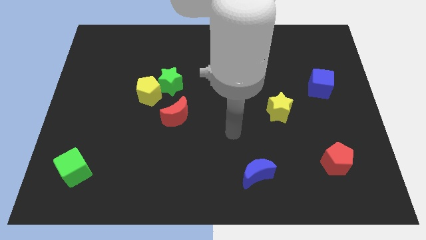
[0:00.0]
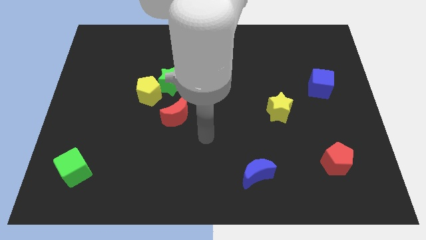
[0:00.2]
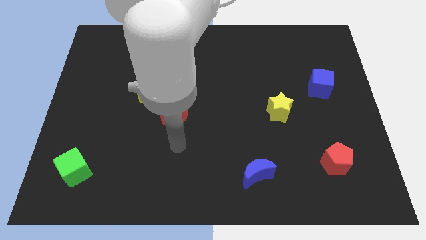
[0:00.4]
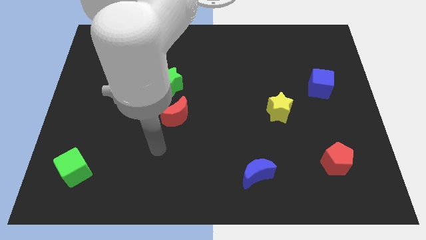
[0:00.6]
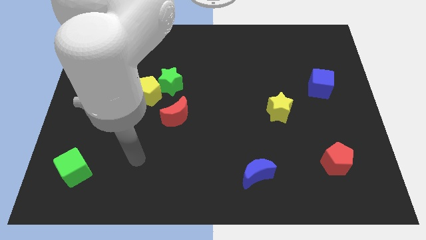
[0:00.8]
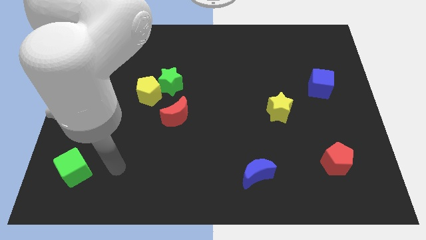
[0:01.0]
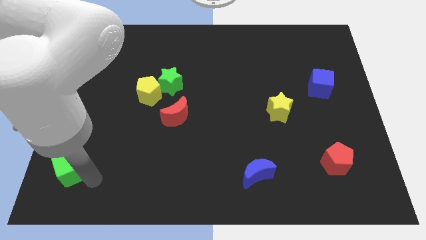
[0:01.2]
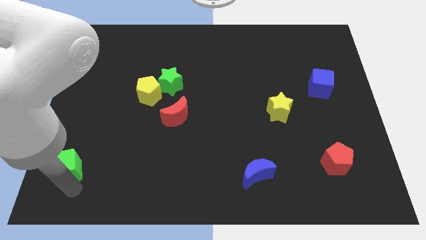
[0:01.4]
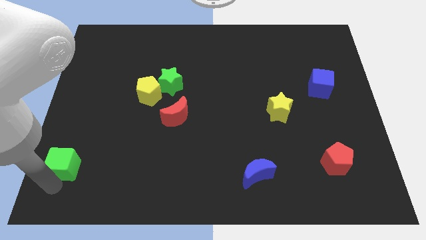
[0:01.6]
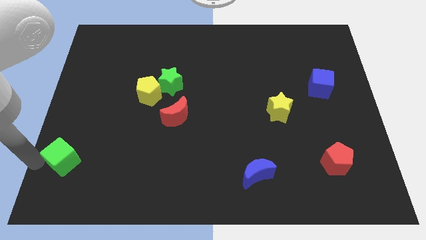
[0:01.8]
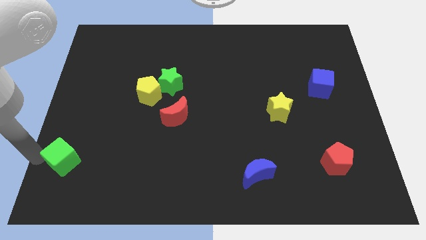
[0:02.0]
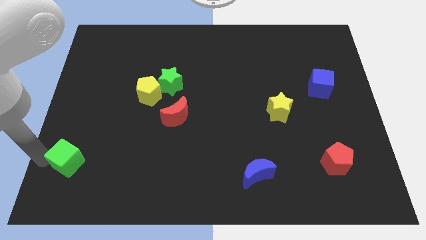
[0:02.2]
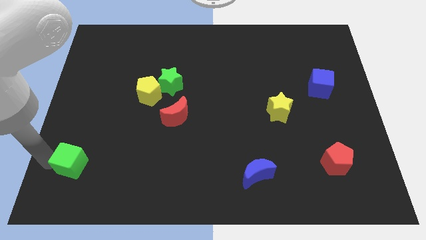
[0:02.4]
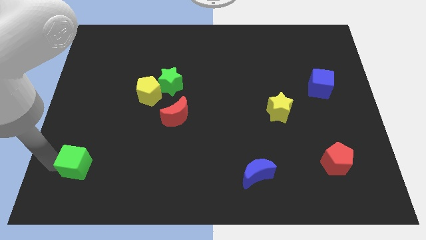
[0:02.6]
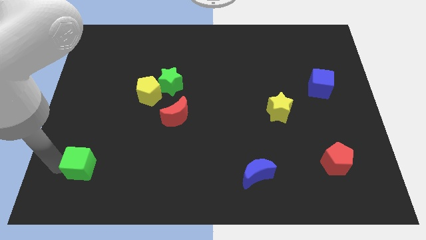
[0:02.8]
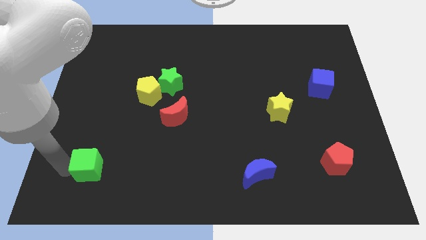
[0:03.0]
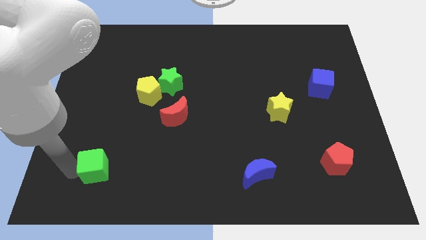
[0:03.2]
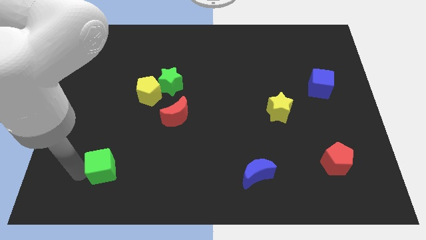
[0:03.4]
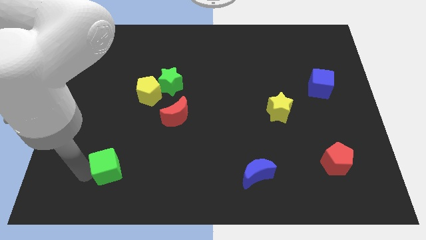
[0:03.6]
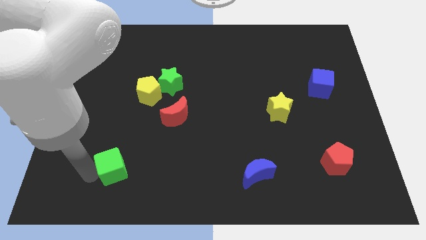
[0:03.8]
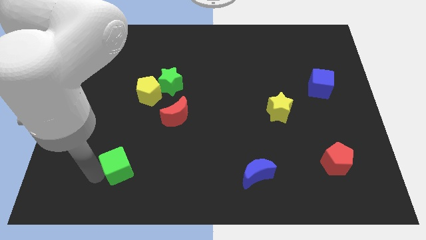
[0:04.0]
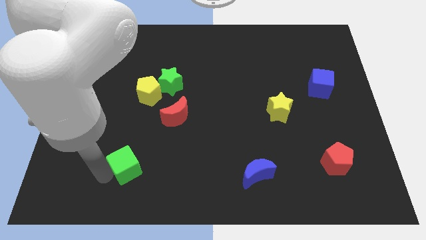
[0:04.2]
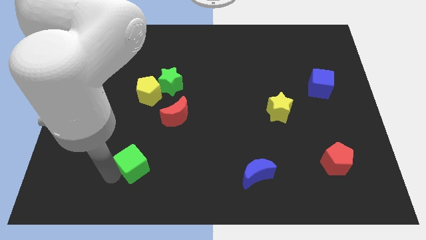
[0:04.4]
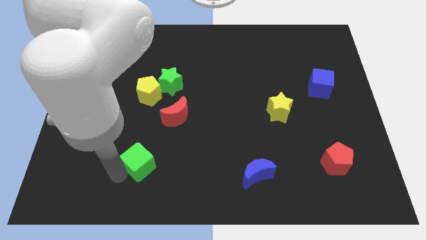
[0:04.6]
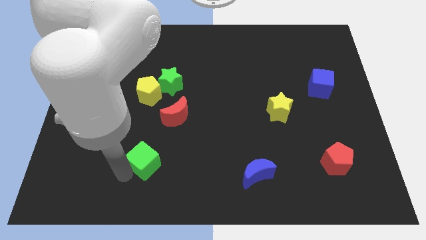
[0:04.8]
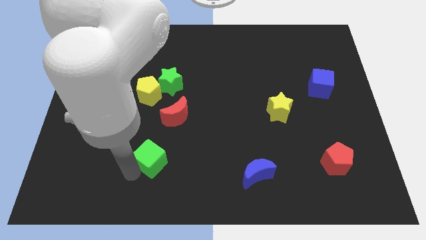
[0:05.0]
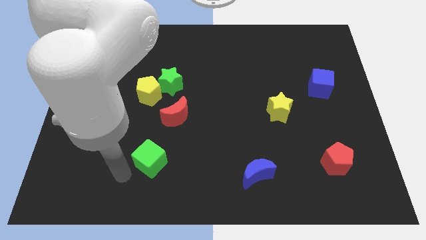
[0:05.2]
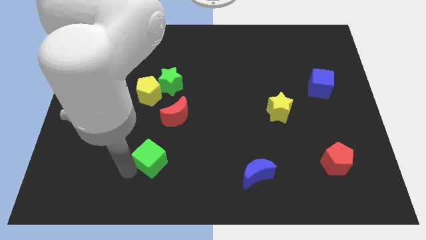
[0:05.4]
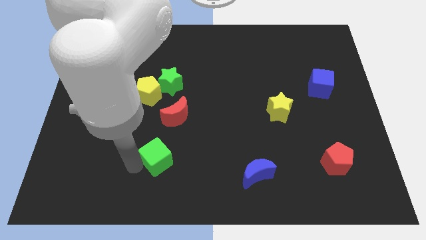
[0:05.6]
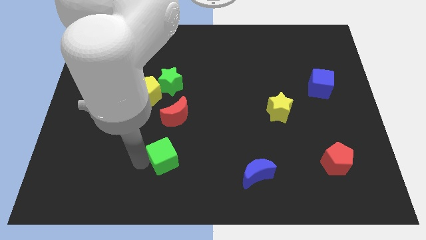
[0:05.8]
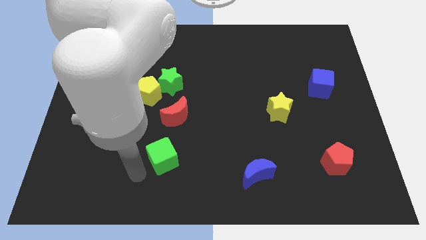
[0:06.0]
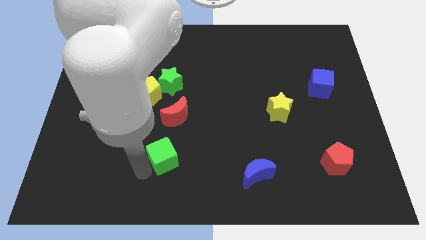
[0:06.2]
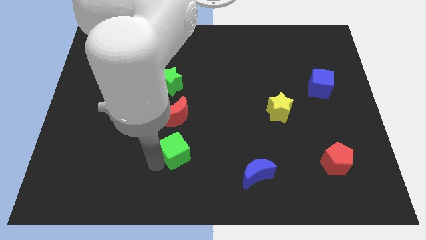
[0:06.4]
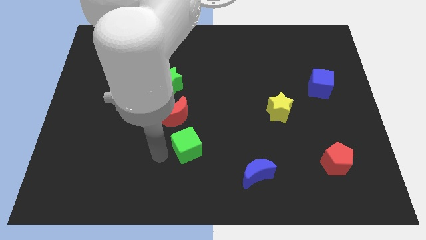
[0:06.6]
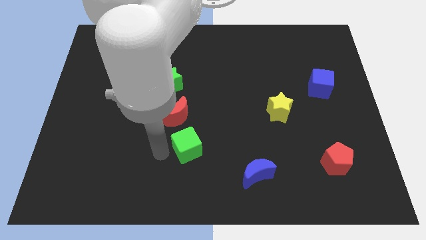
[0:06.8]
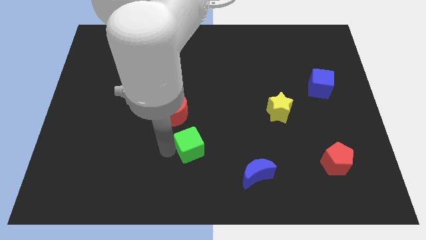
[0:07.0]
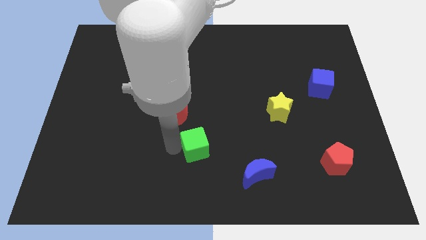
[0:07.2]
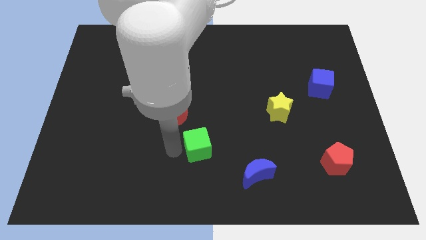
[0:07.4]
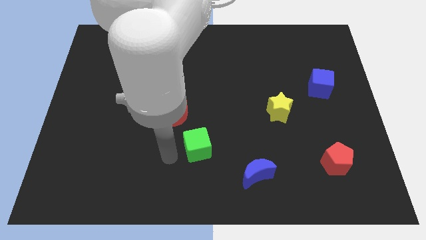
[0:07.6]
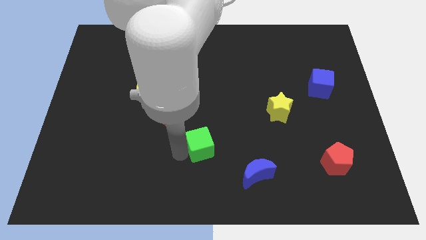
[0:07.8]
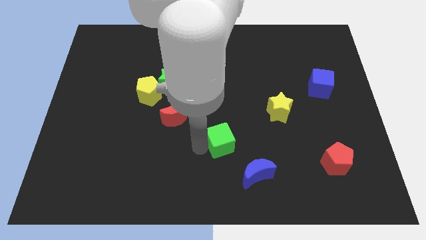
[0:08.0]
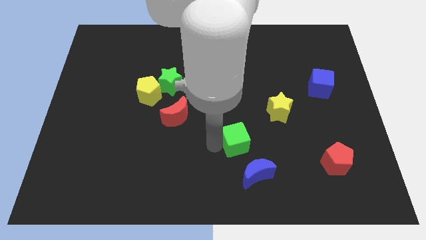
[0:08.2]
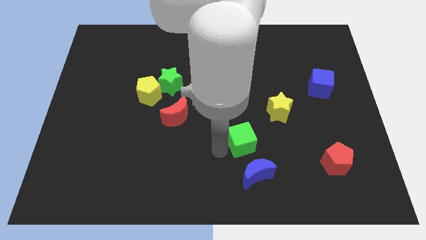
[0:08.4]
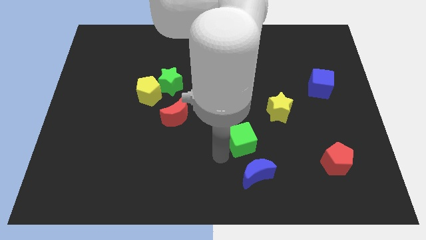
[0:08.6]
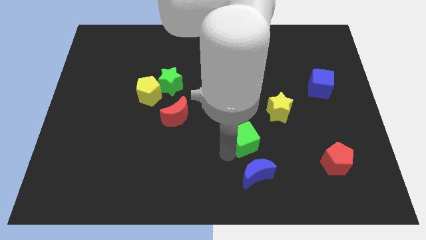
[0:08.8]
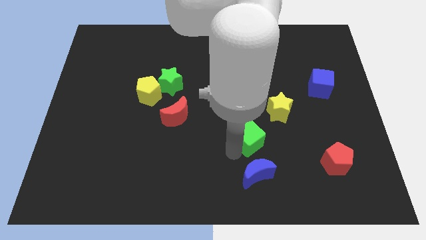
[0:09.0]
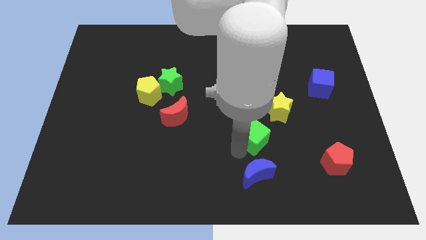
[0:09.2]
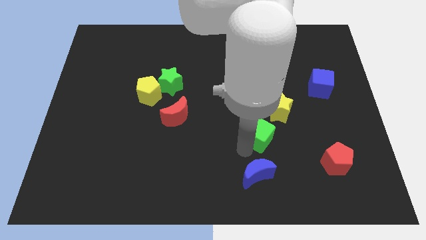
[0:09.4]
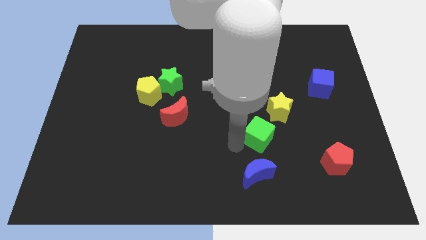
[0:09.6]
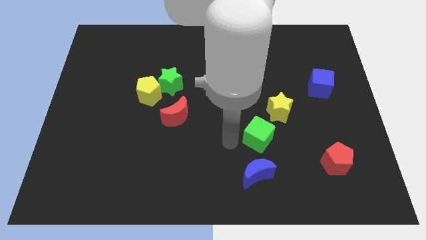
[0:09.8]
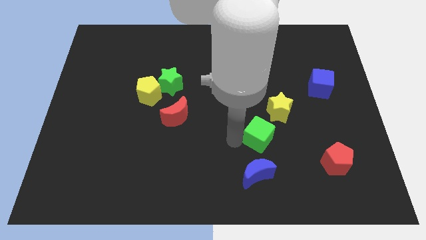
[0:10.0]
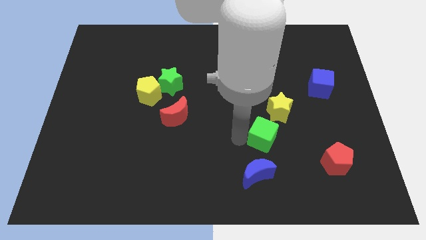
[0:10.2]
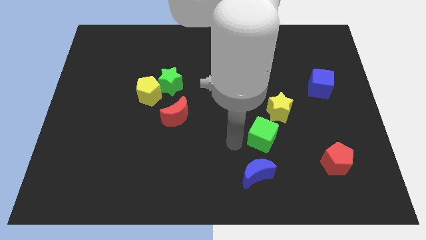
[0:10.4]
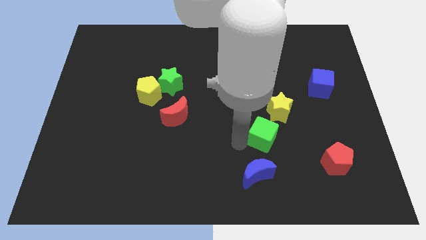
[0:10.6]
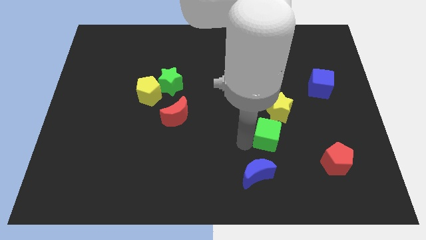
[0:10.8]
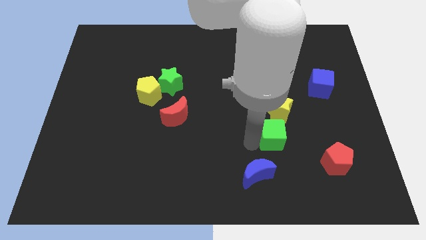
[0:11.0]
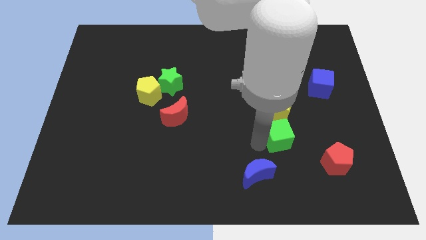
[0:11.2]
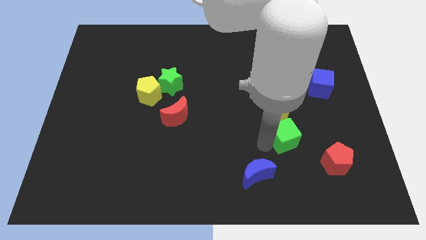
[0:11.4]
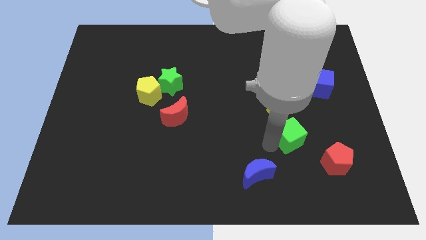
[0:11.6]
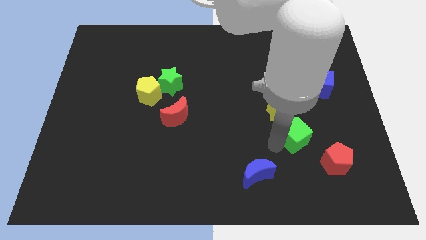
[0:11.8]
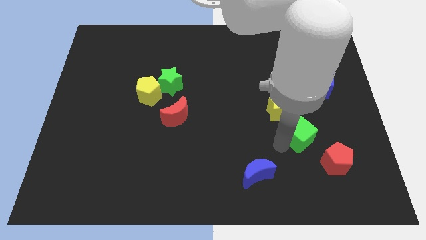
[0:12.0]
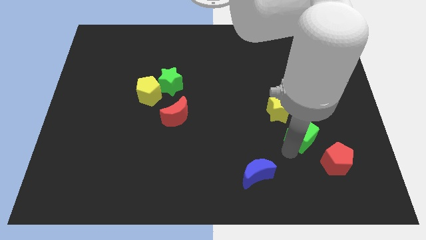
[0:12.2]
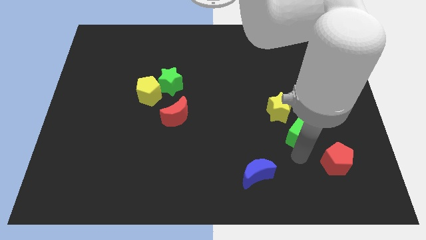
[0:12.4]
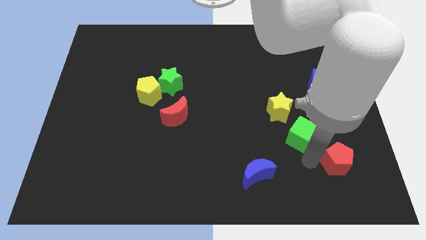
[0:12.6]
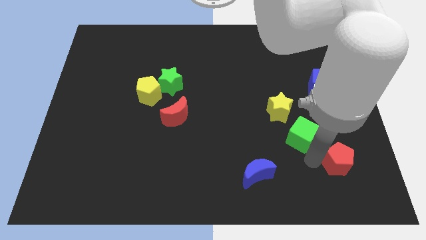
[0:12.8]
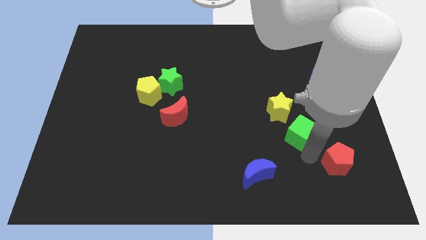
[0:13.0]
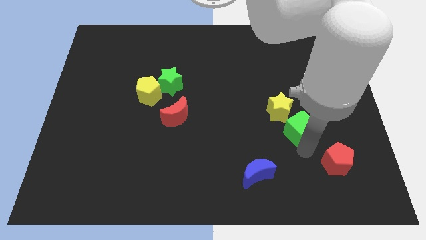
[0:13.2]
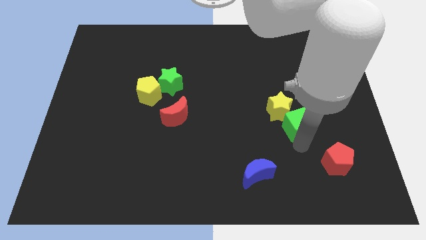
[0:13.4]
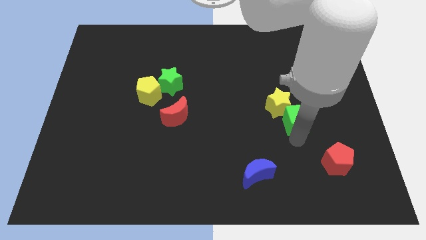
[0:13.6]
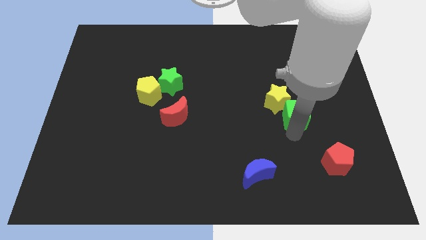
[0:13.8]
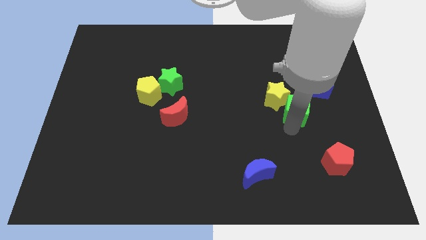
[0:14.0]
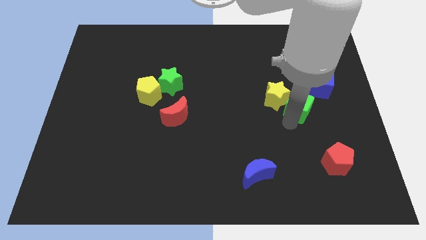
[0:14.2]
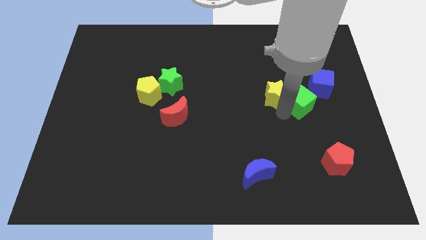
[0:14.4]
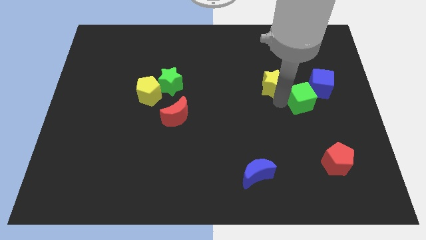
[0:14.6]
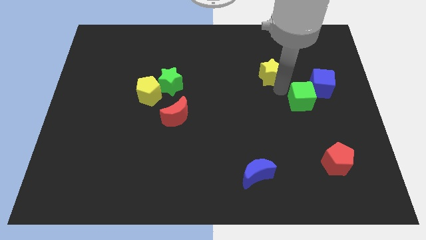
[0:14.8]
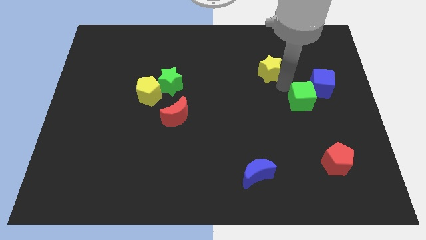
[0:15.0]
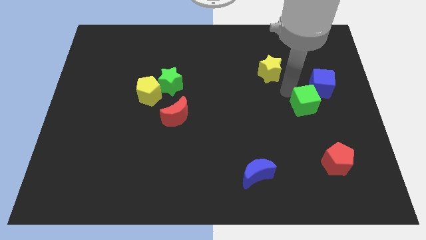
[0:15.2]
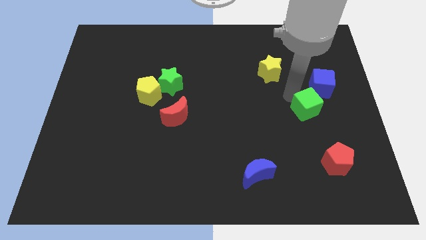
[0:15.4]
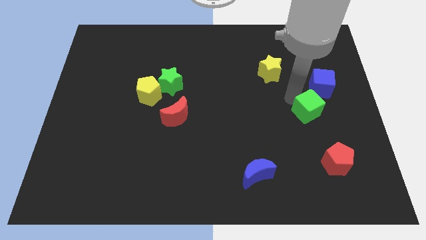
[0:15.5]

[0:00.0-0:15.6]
put the green cube to the top side of the red pentagon

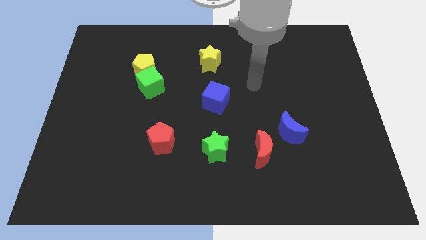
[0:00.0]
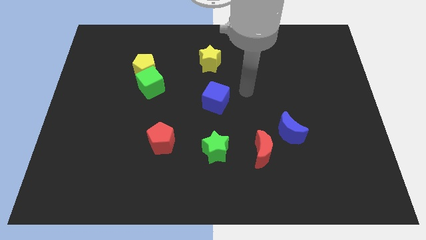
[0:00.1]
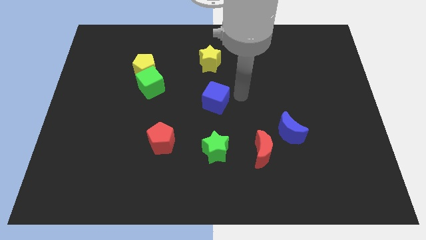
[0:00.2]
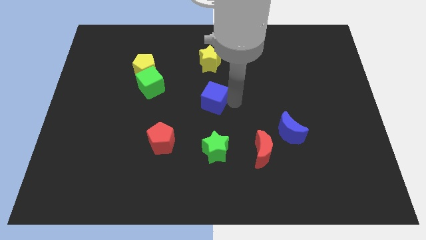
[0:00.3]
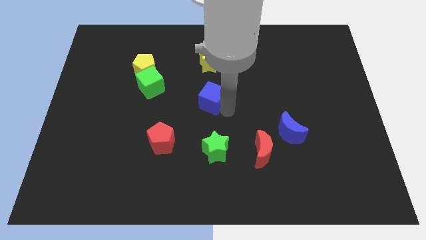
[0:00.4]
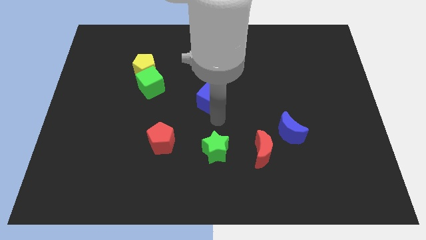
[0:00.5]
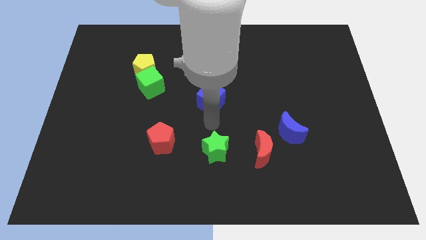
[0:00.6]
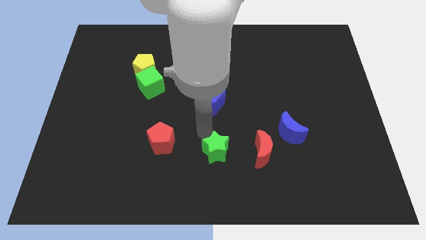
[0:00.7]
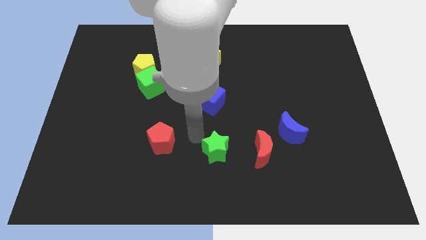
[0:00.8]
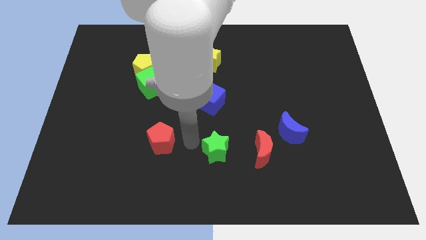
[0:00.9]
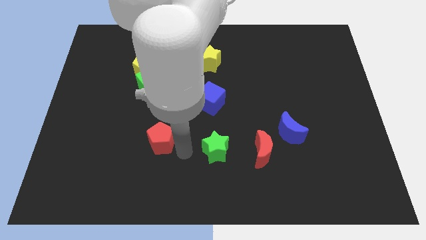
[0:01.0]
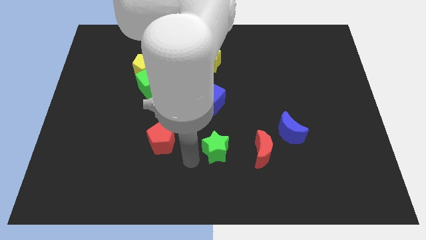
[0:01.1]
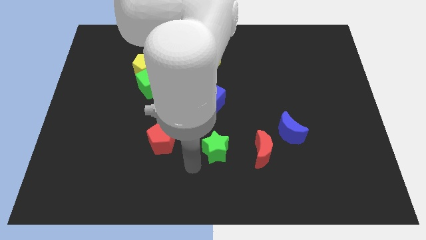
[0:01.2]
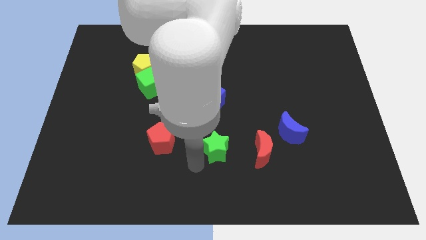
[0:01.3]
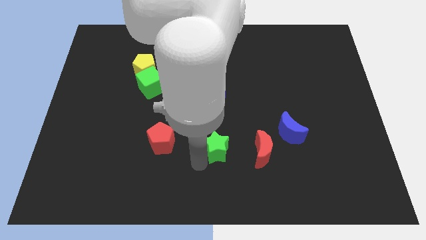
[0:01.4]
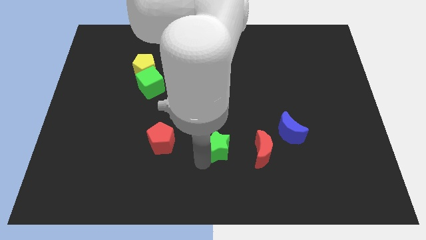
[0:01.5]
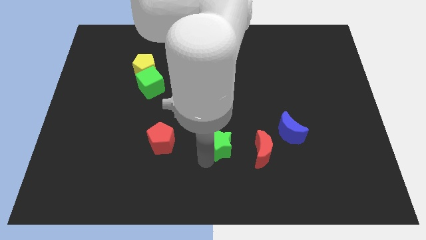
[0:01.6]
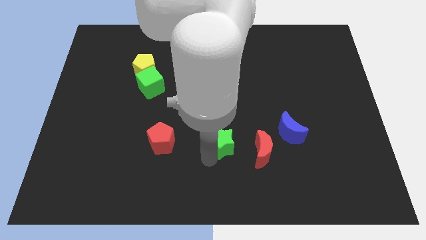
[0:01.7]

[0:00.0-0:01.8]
move the green star to the top left of the red moon
